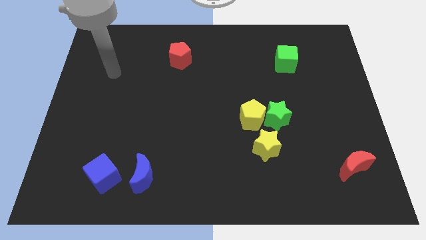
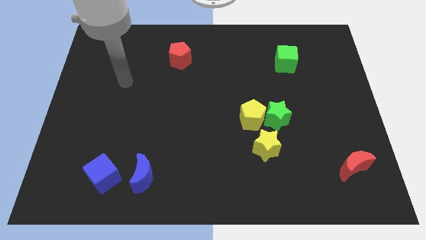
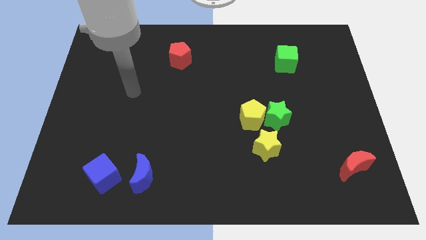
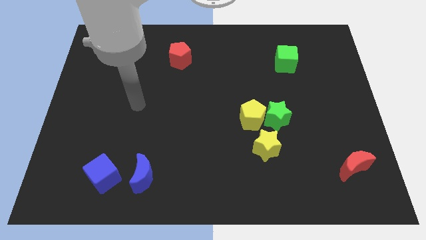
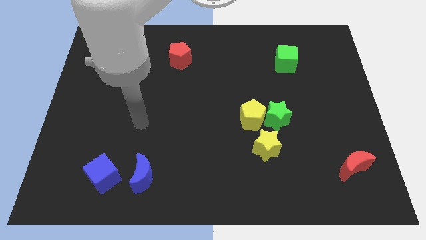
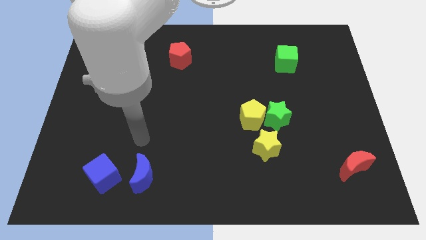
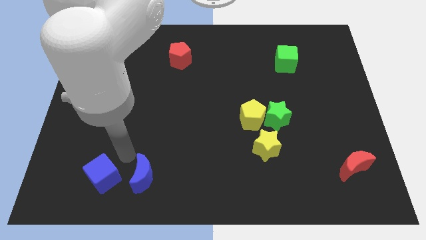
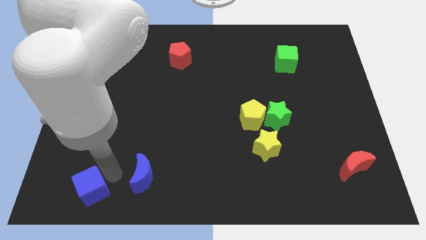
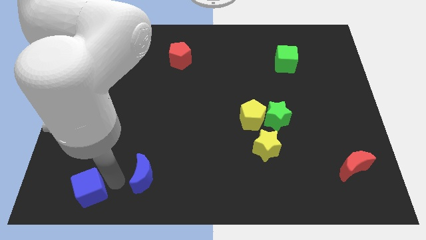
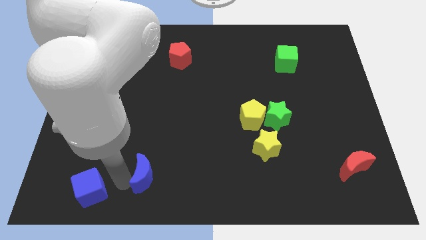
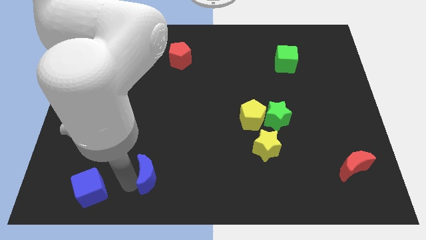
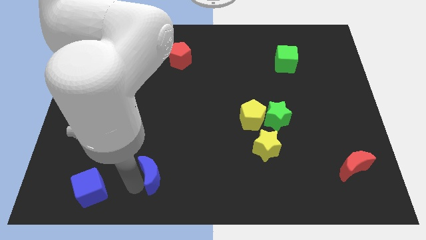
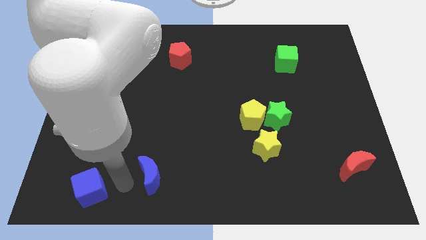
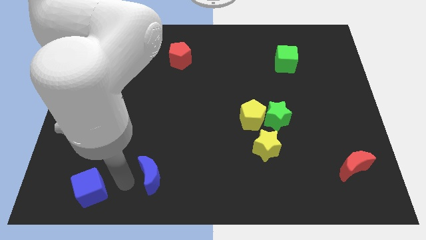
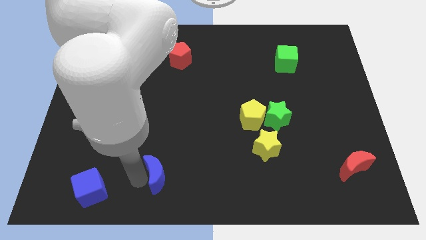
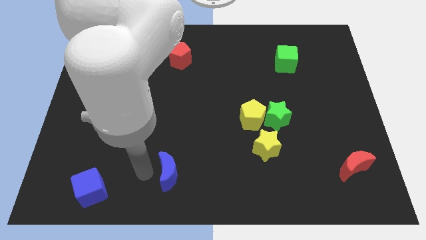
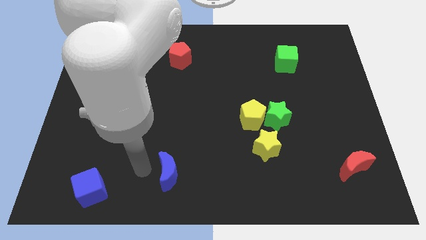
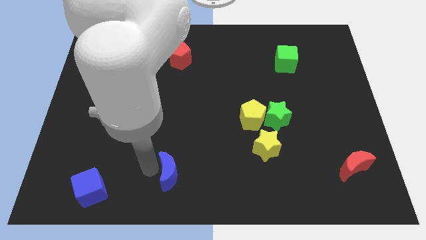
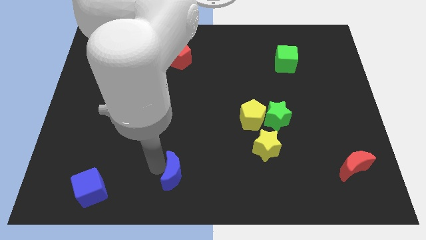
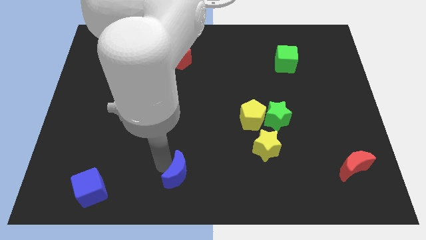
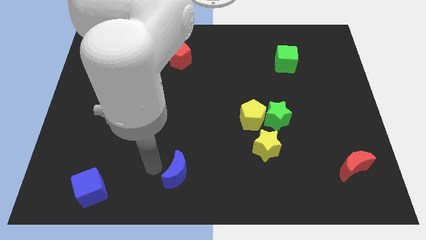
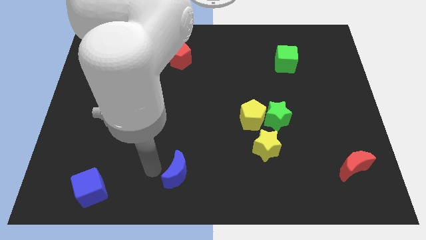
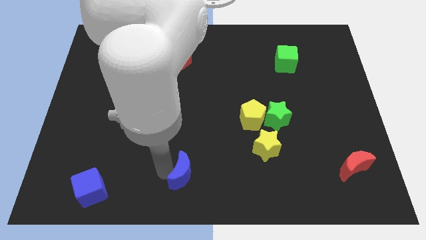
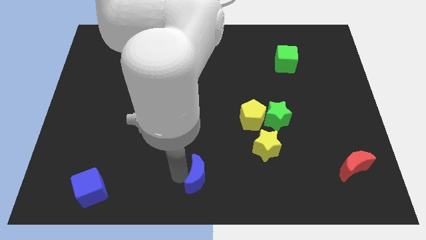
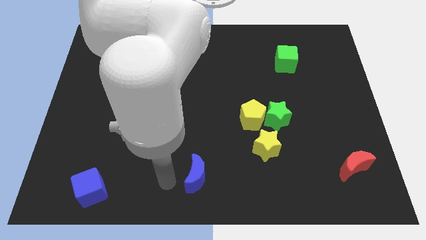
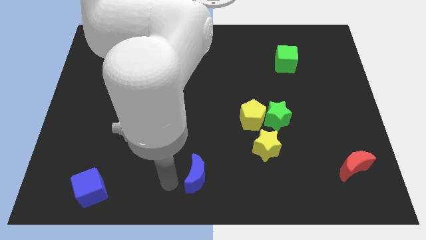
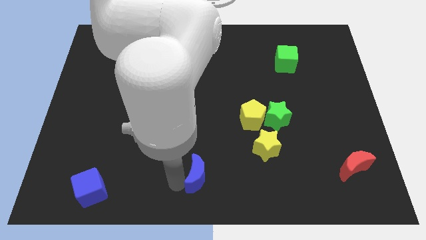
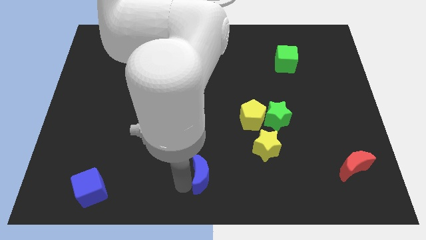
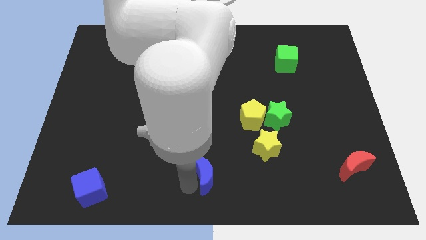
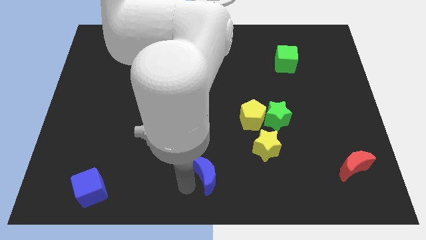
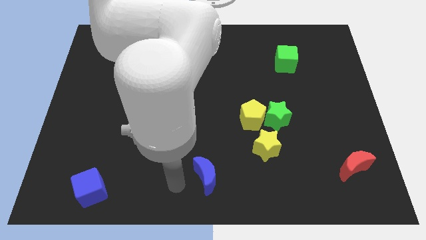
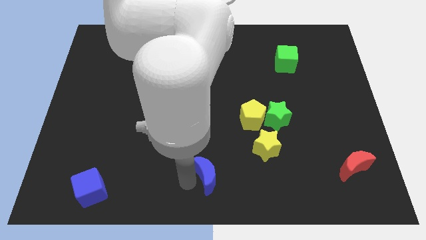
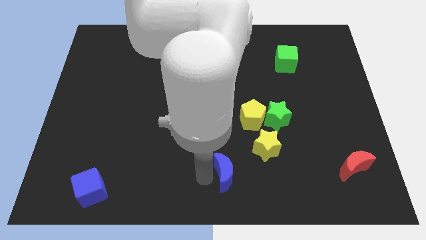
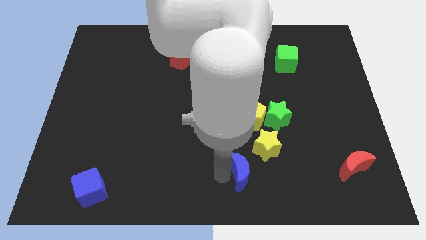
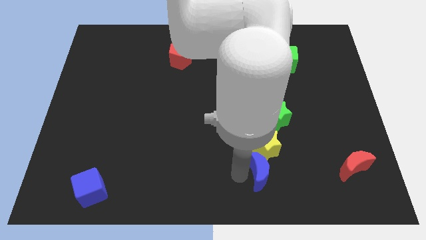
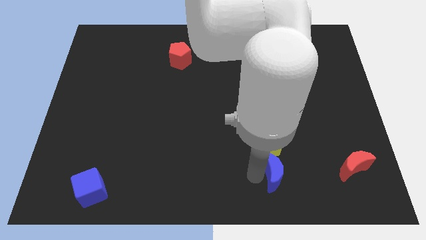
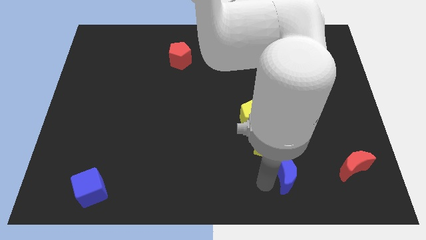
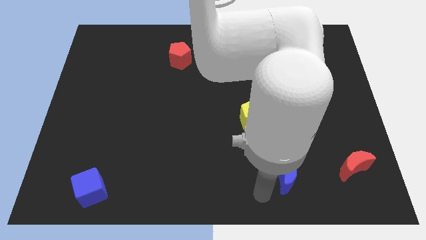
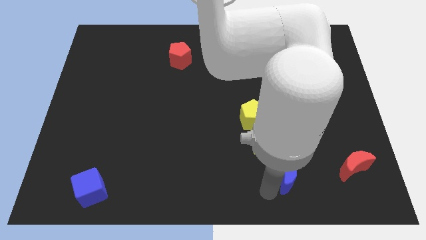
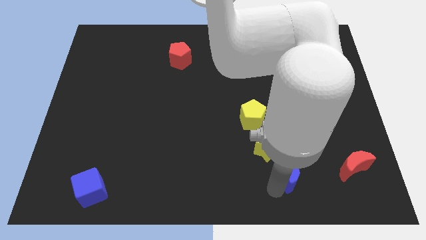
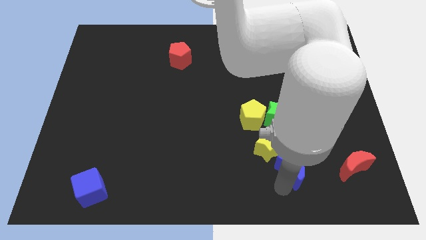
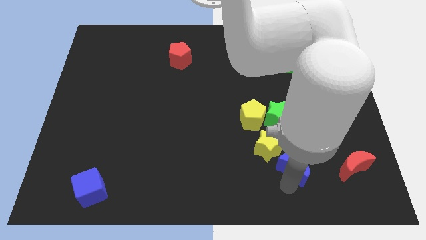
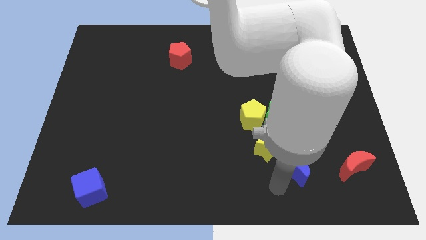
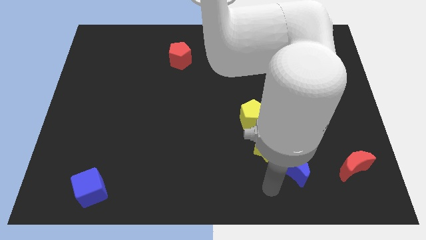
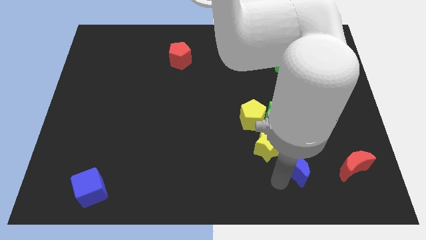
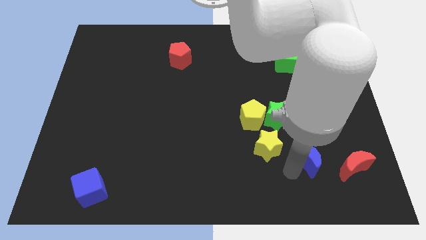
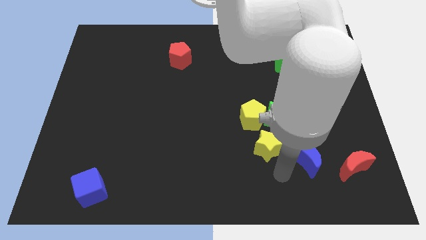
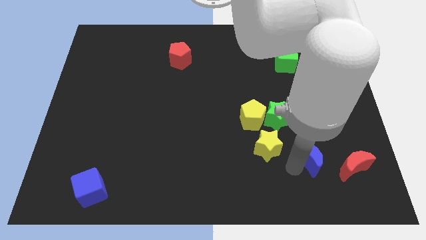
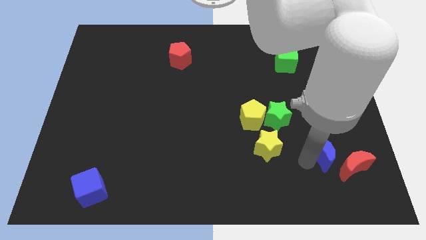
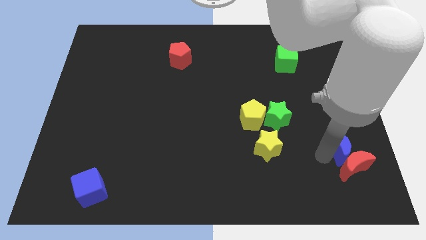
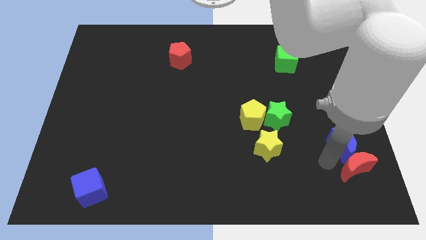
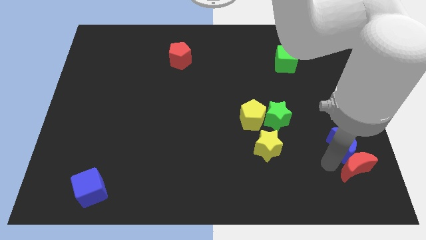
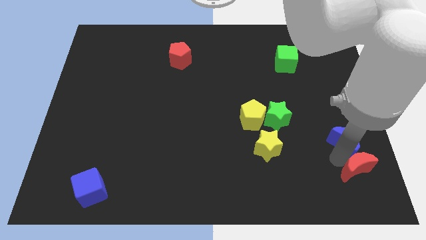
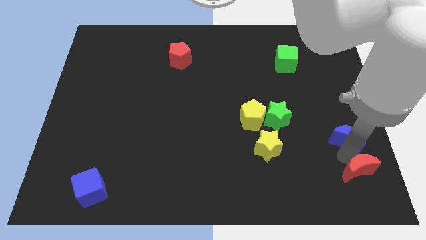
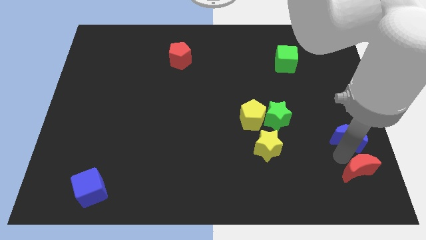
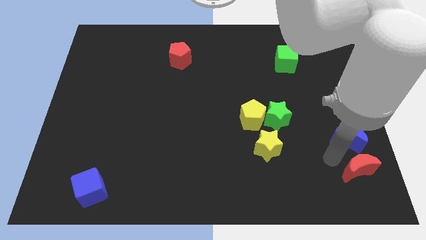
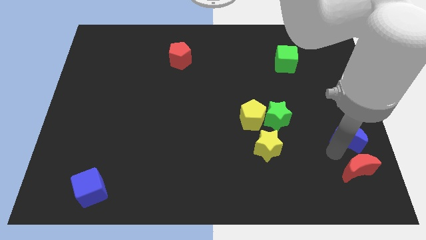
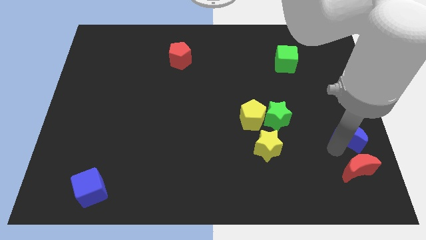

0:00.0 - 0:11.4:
push the blue moon to the right side

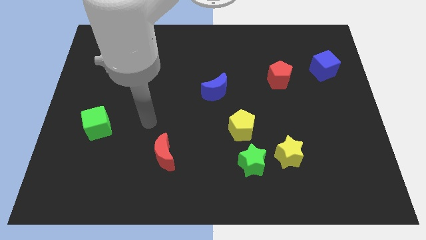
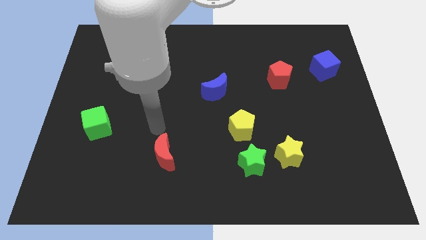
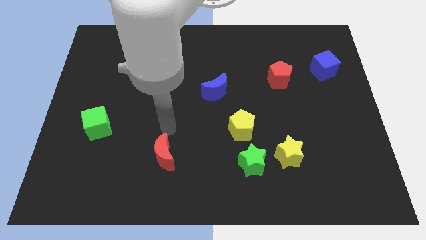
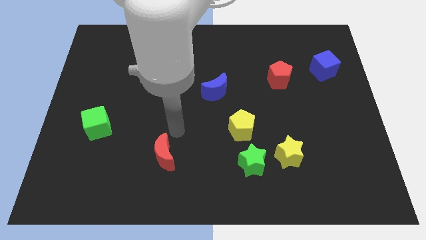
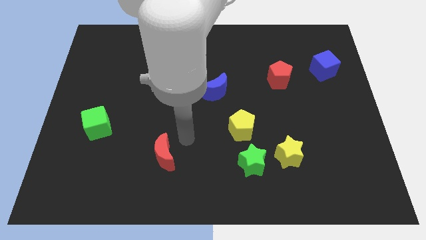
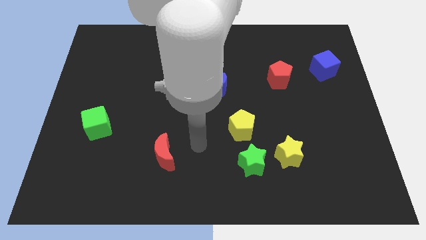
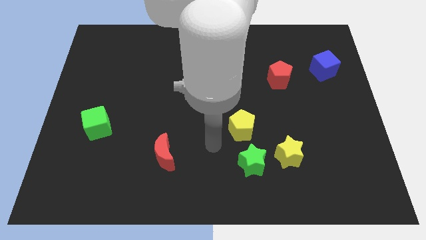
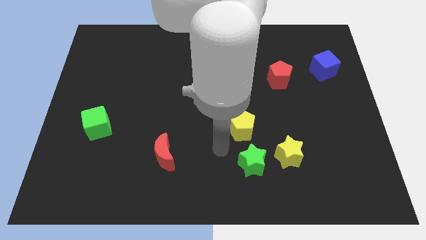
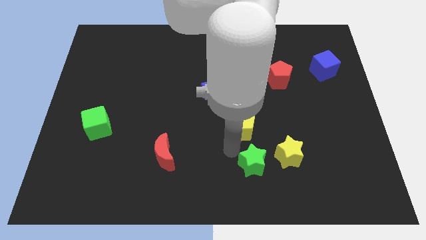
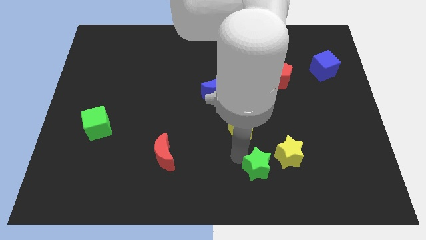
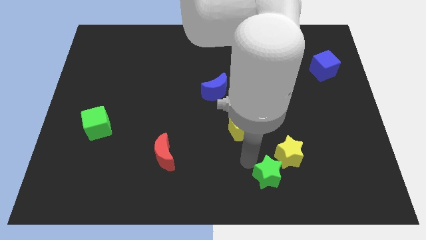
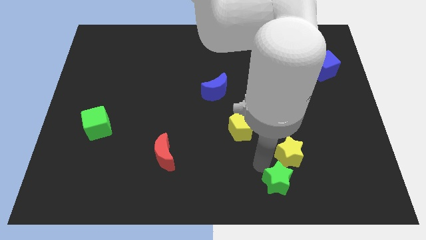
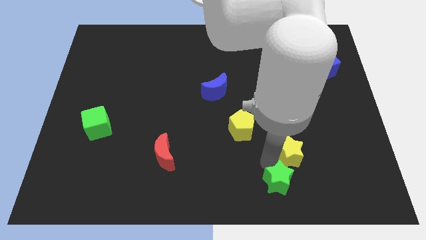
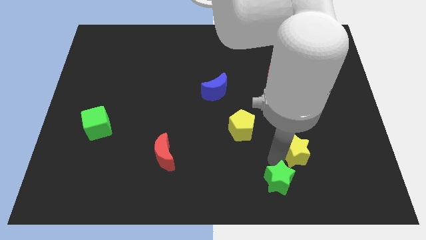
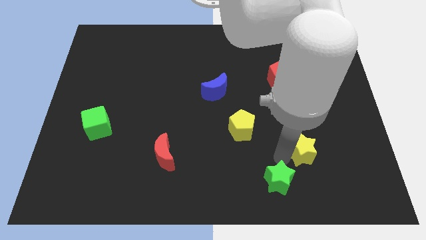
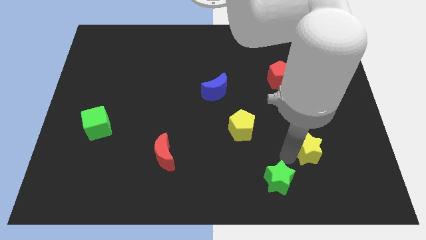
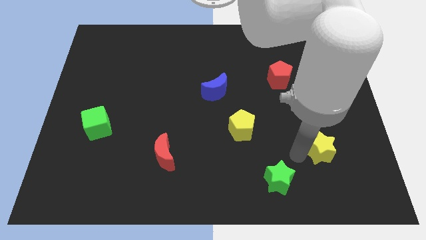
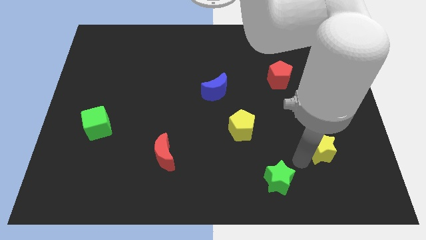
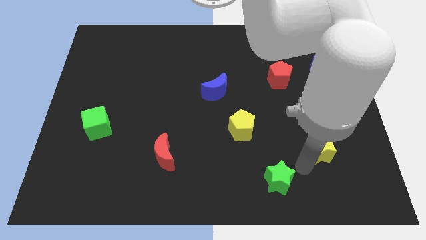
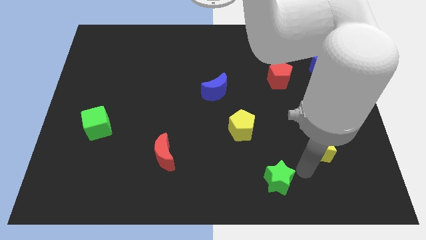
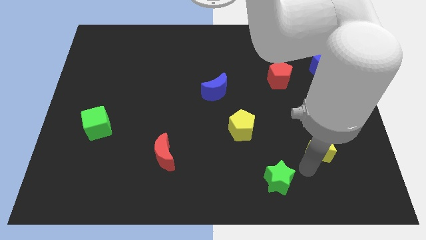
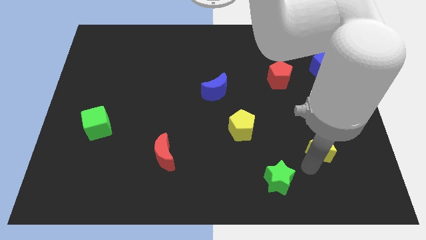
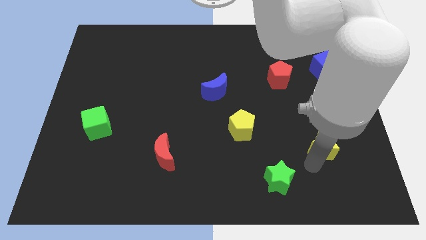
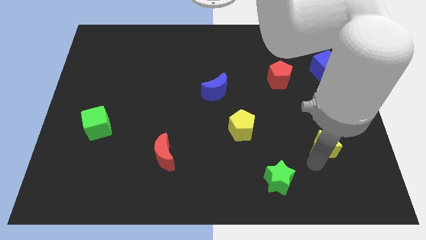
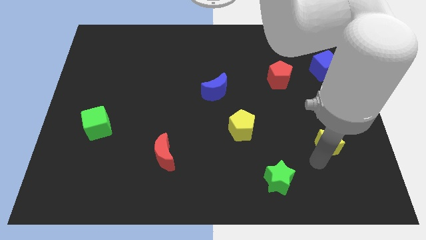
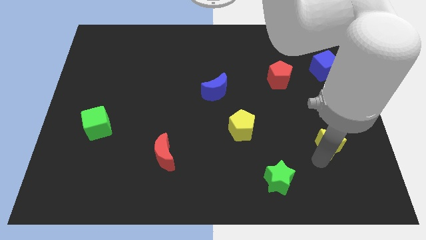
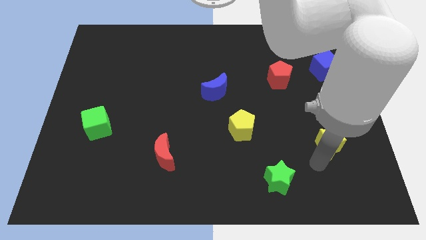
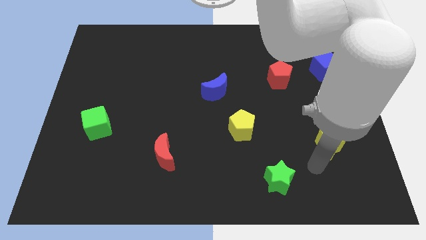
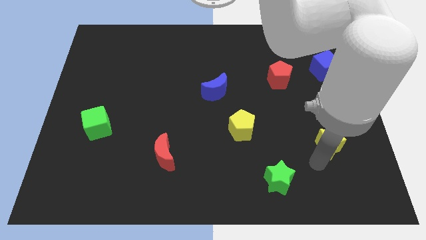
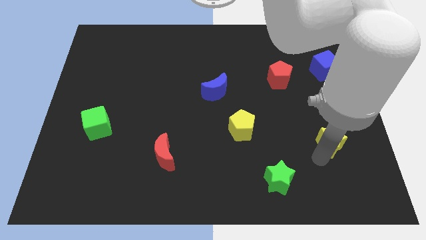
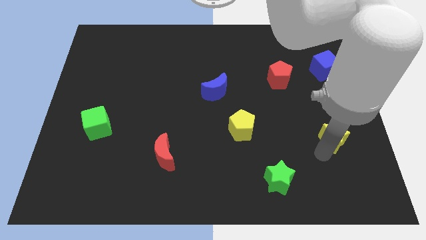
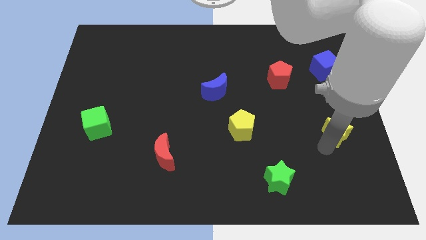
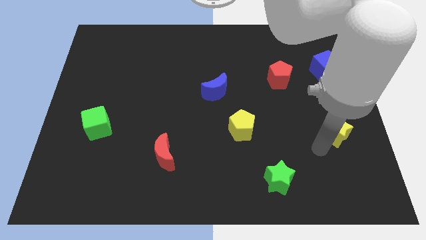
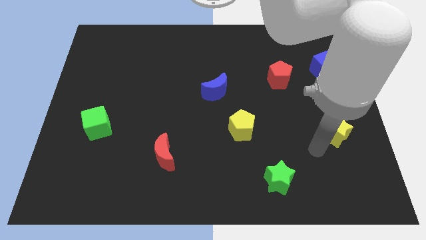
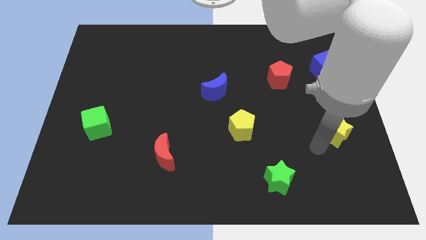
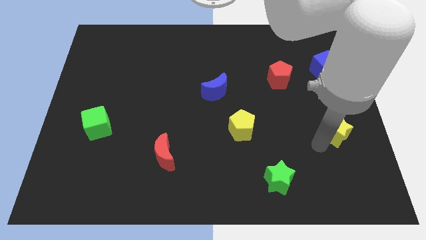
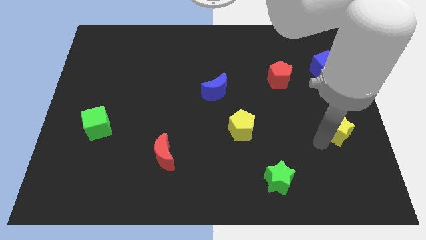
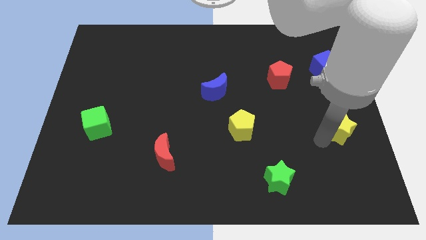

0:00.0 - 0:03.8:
slide the yellow star to the right side
